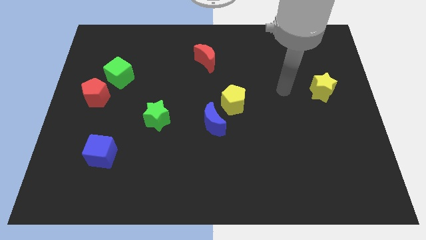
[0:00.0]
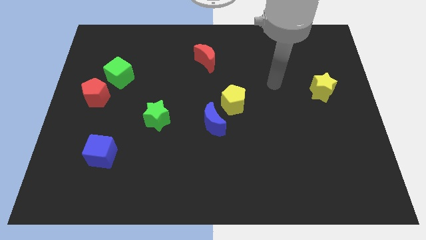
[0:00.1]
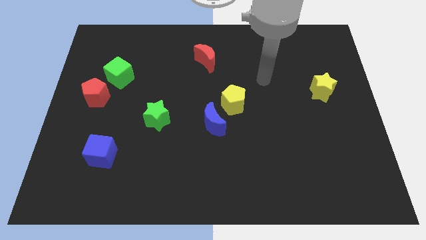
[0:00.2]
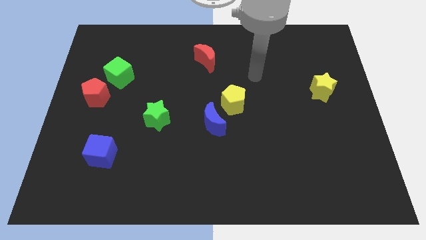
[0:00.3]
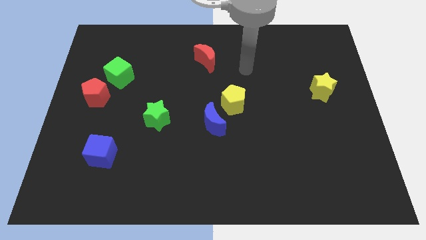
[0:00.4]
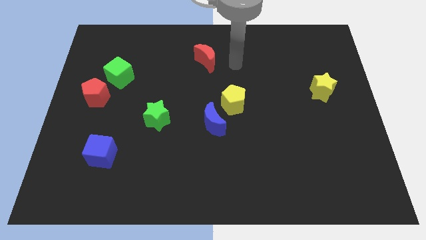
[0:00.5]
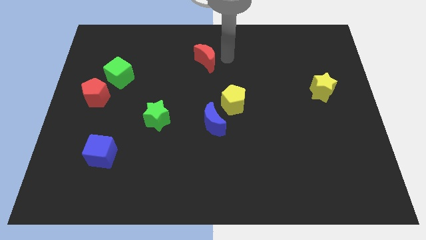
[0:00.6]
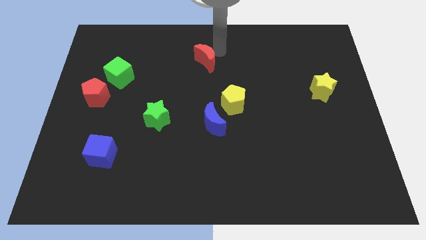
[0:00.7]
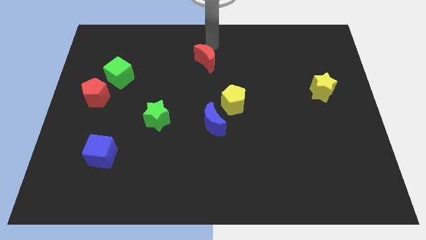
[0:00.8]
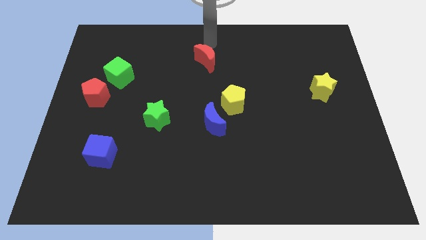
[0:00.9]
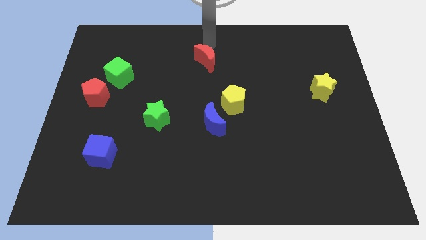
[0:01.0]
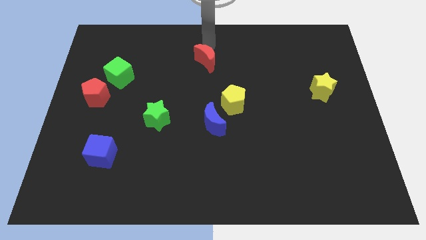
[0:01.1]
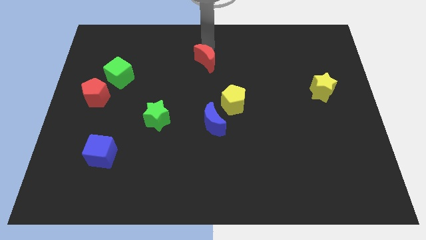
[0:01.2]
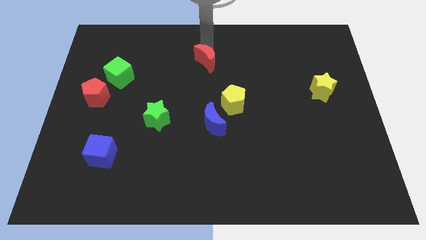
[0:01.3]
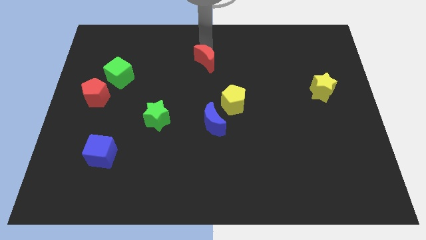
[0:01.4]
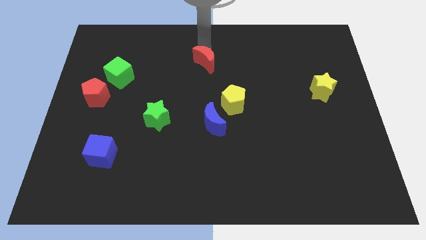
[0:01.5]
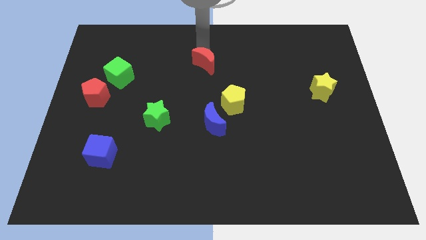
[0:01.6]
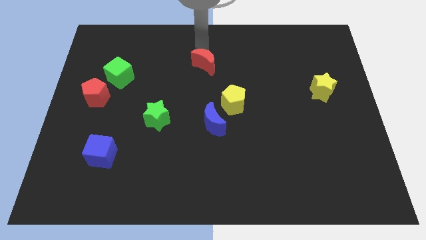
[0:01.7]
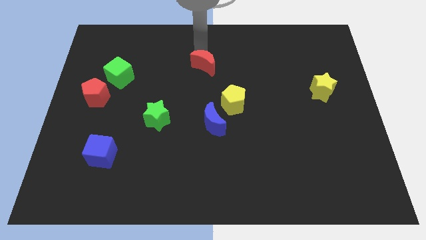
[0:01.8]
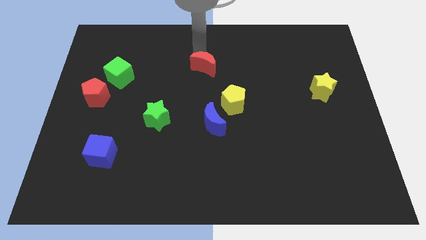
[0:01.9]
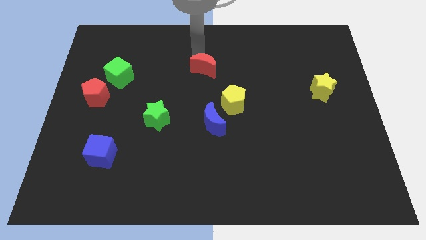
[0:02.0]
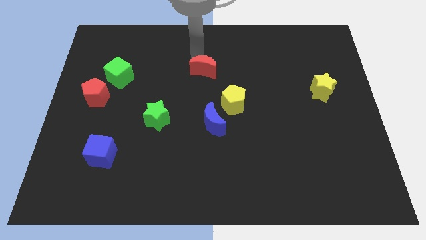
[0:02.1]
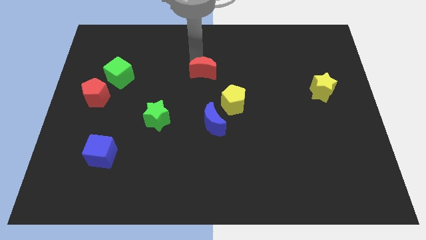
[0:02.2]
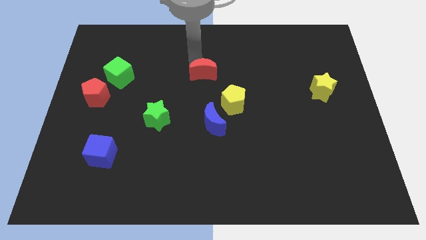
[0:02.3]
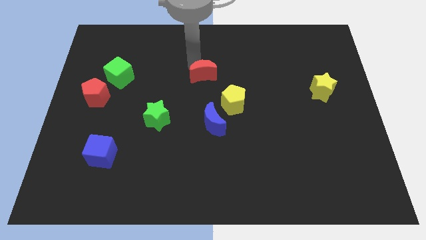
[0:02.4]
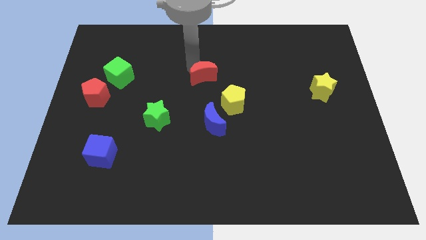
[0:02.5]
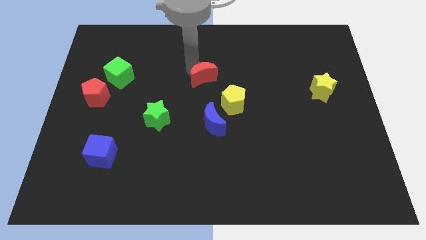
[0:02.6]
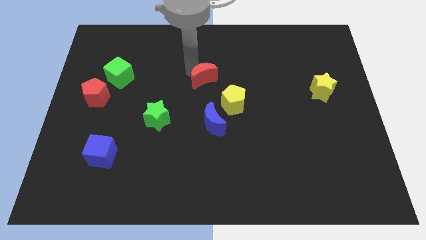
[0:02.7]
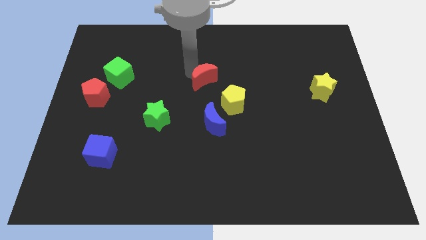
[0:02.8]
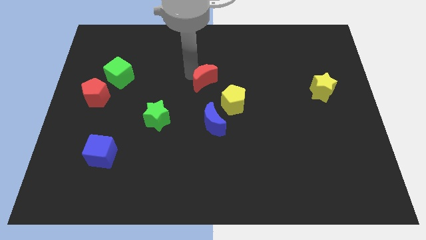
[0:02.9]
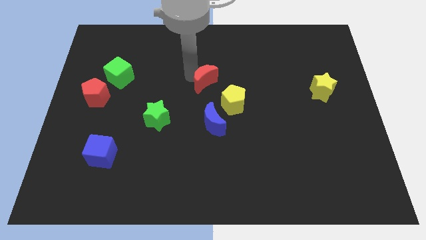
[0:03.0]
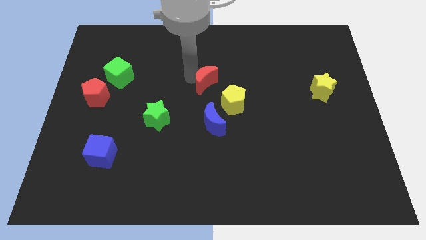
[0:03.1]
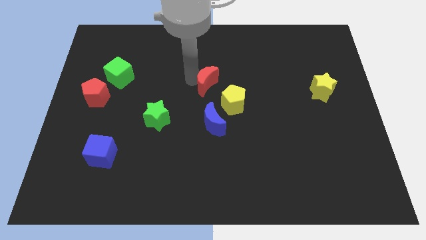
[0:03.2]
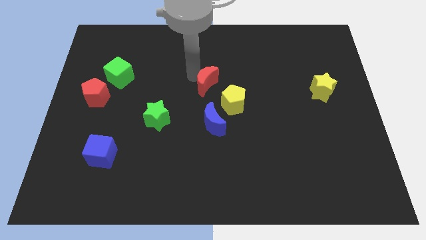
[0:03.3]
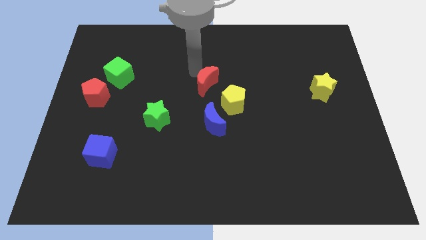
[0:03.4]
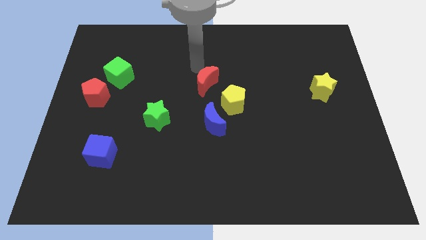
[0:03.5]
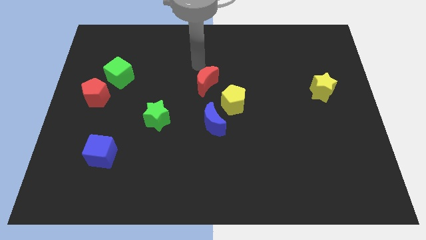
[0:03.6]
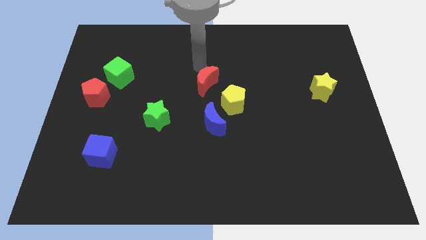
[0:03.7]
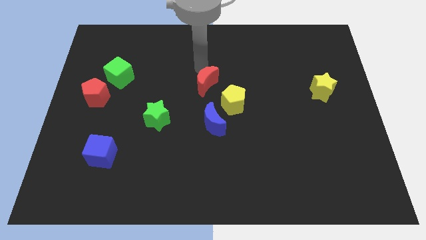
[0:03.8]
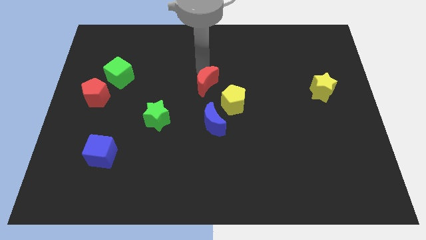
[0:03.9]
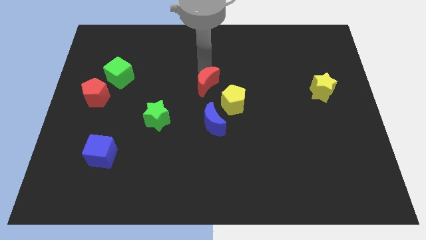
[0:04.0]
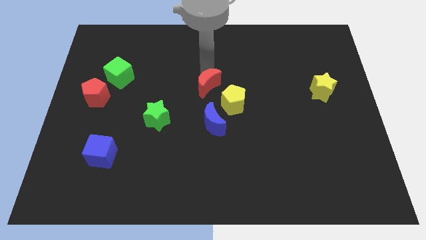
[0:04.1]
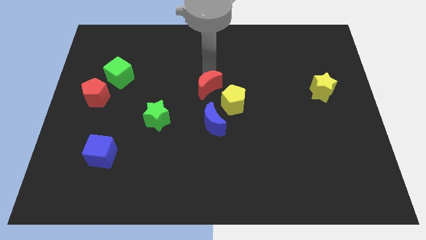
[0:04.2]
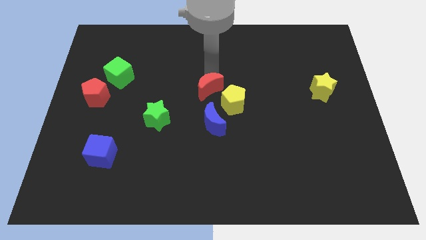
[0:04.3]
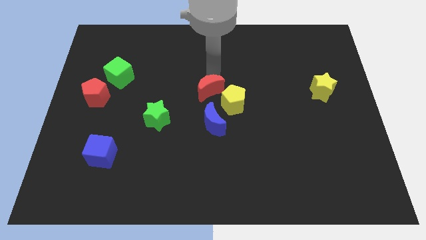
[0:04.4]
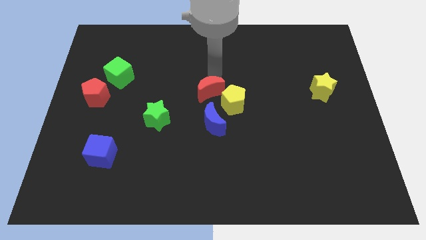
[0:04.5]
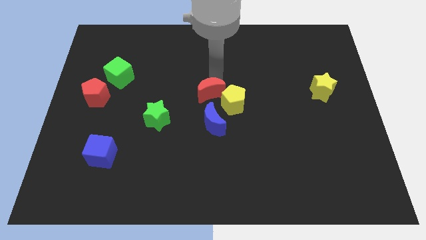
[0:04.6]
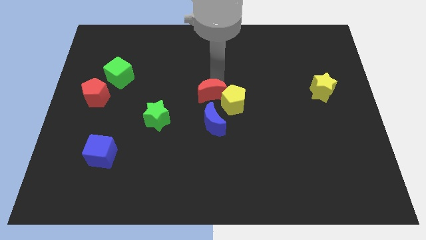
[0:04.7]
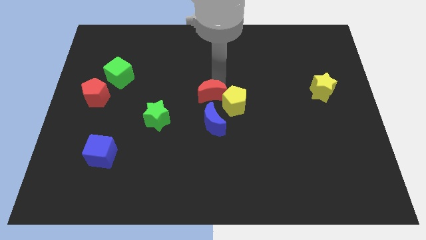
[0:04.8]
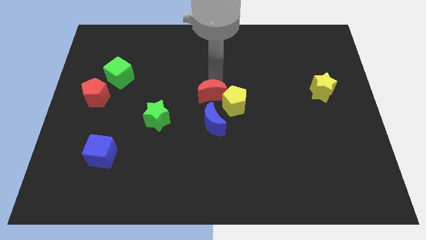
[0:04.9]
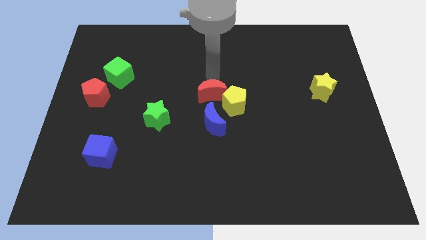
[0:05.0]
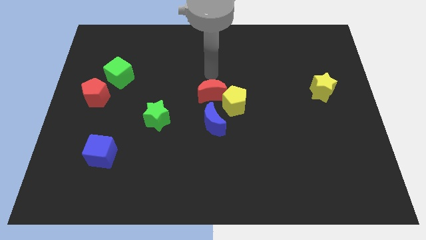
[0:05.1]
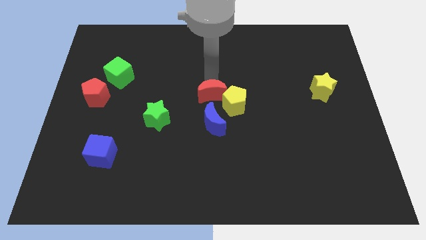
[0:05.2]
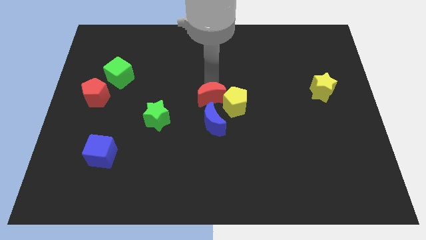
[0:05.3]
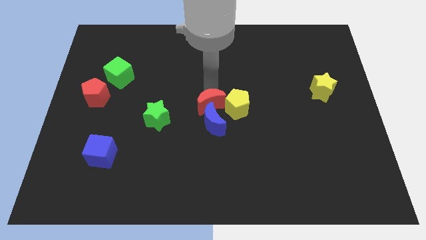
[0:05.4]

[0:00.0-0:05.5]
slide the red moon towards the blue moon

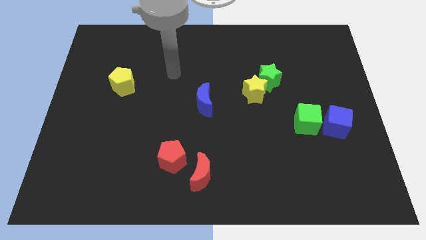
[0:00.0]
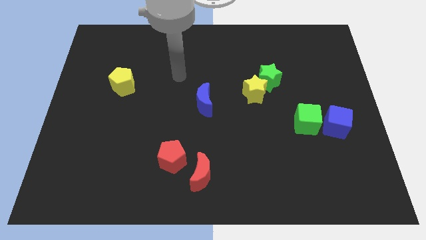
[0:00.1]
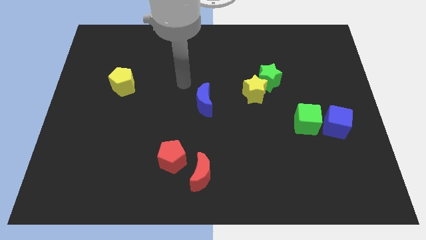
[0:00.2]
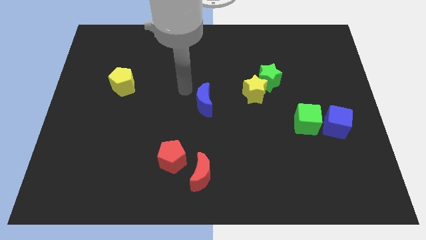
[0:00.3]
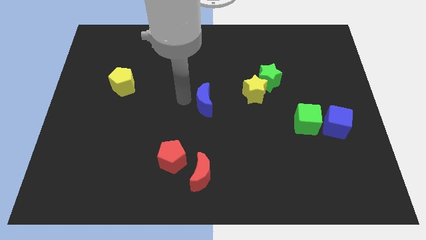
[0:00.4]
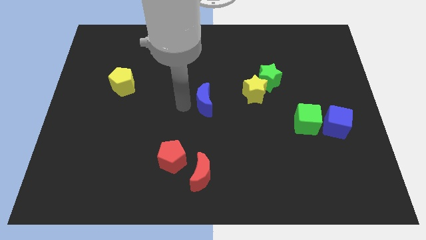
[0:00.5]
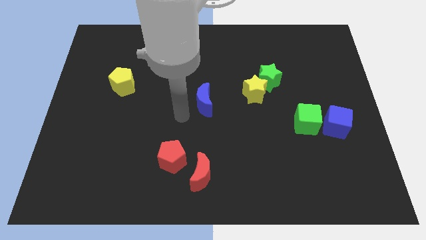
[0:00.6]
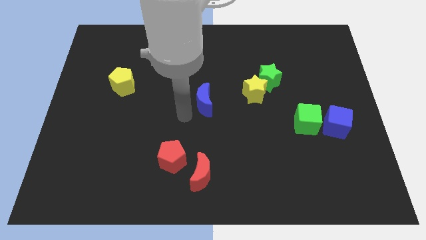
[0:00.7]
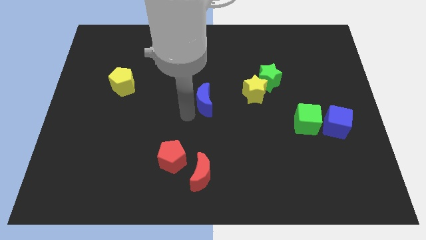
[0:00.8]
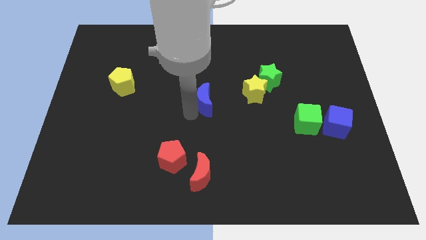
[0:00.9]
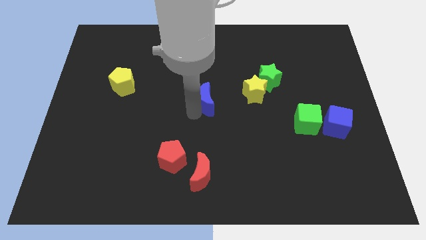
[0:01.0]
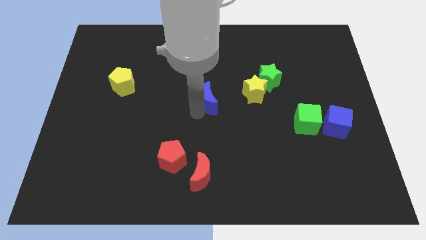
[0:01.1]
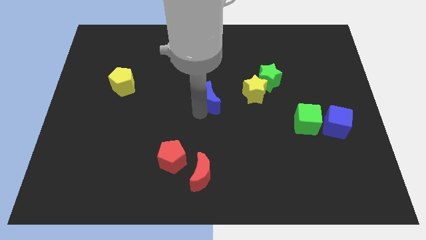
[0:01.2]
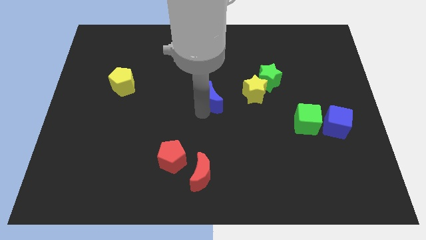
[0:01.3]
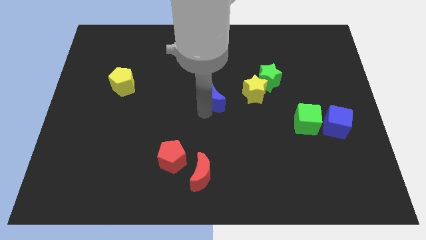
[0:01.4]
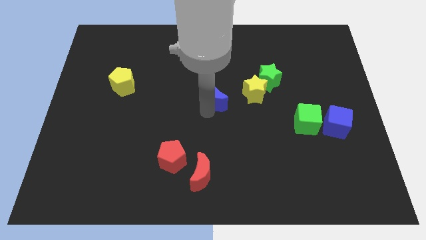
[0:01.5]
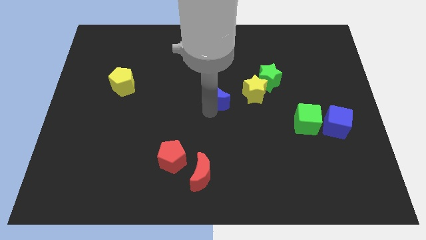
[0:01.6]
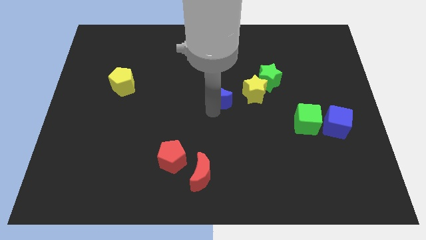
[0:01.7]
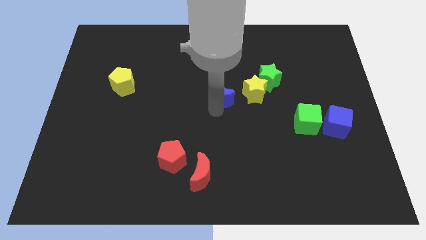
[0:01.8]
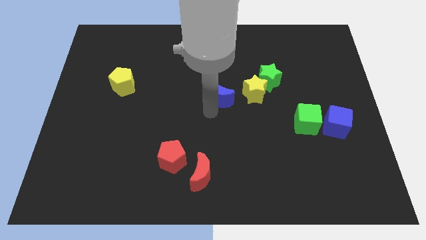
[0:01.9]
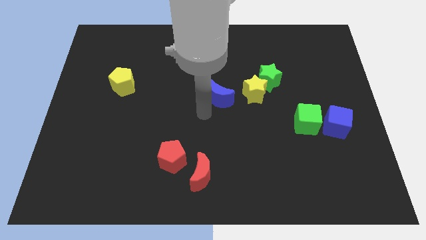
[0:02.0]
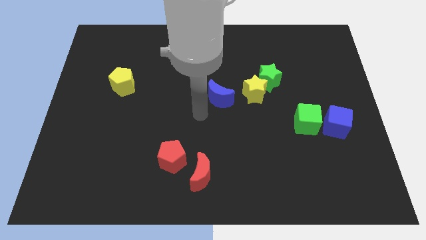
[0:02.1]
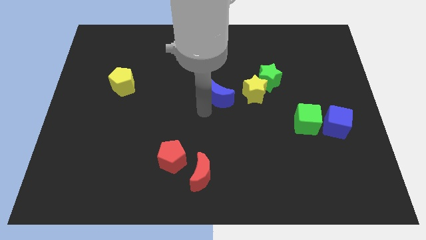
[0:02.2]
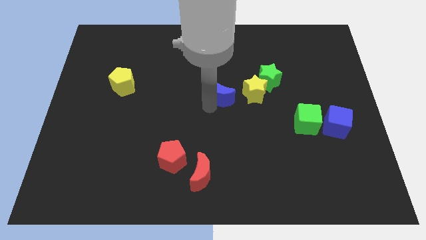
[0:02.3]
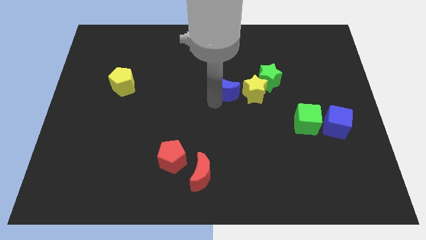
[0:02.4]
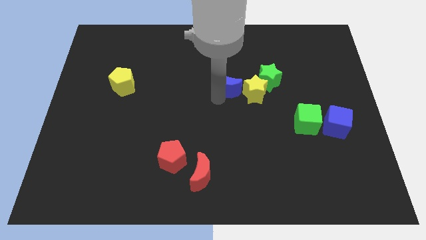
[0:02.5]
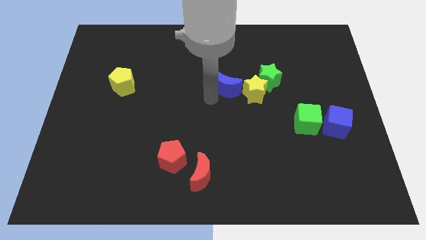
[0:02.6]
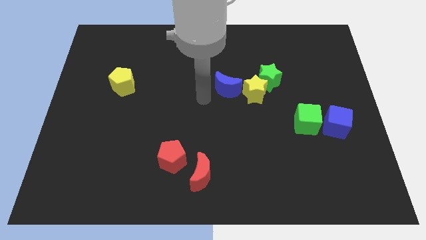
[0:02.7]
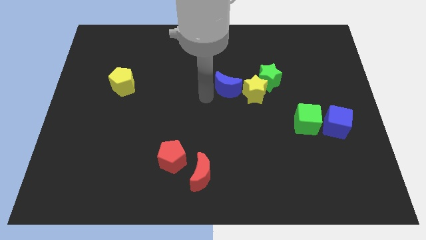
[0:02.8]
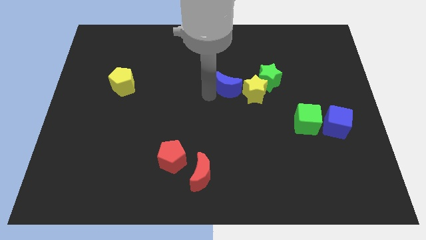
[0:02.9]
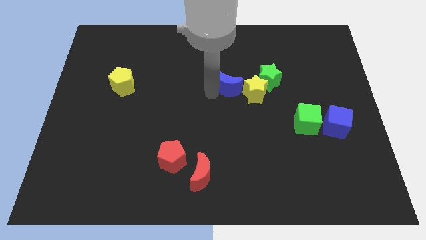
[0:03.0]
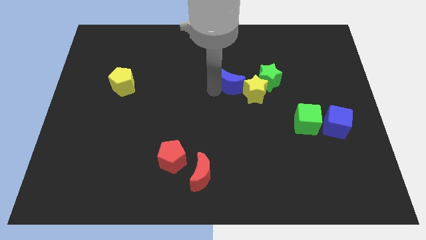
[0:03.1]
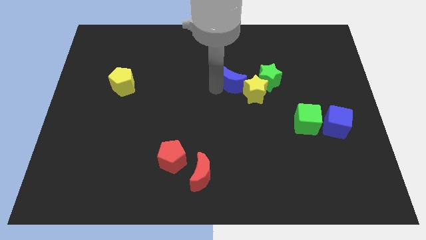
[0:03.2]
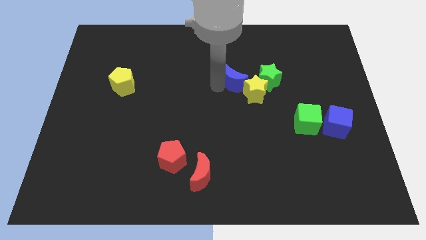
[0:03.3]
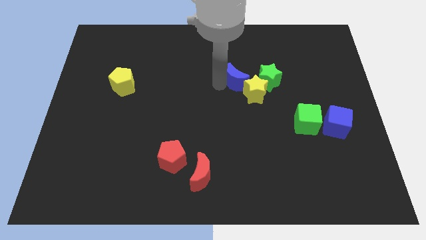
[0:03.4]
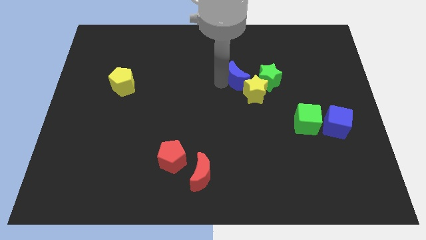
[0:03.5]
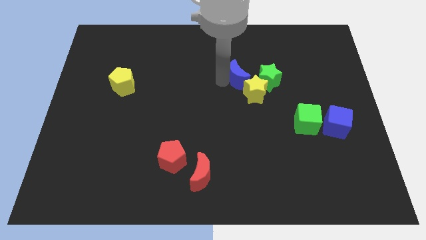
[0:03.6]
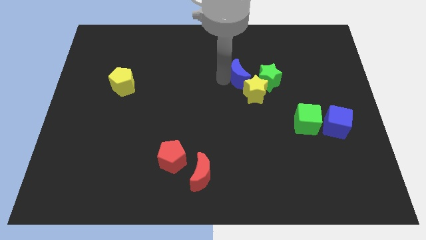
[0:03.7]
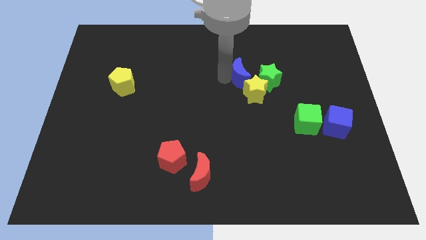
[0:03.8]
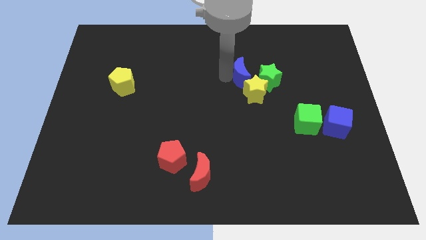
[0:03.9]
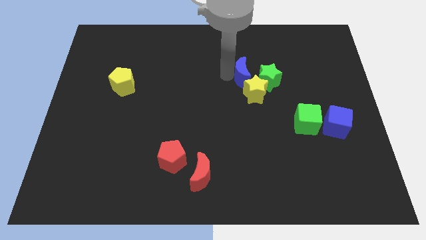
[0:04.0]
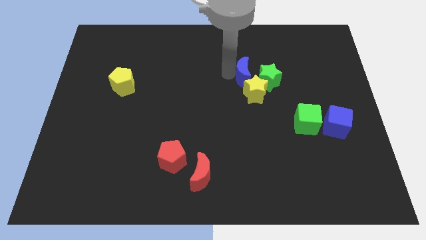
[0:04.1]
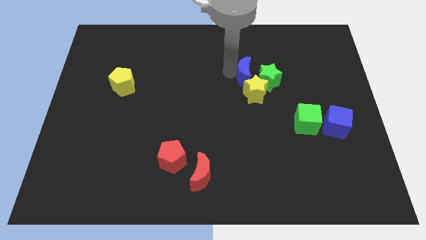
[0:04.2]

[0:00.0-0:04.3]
slide the blue moon towards the green star
